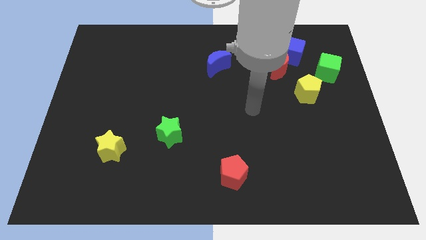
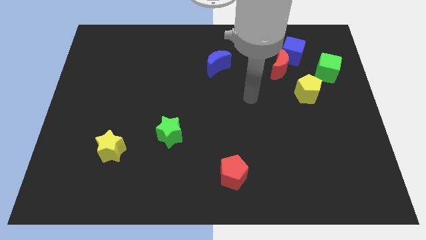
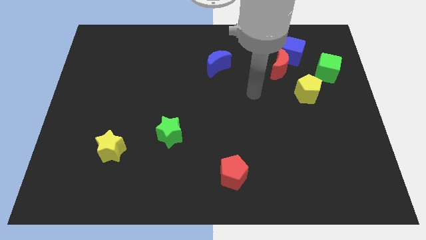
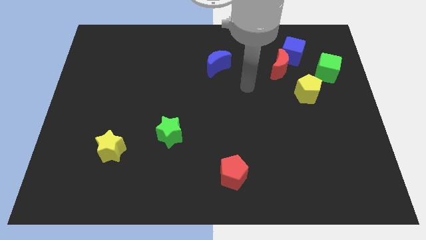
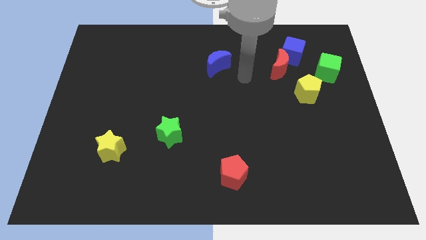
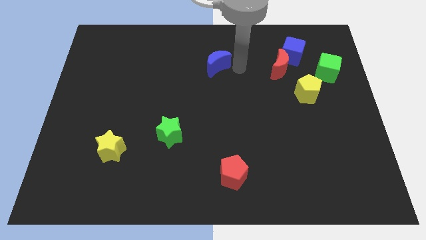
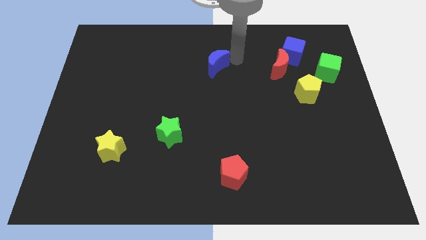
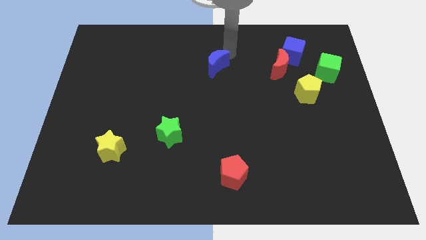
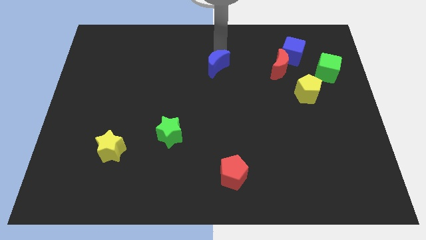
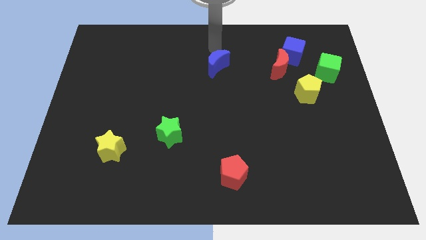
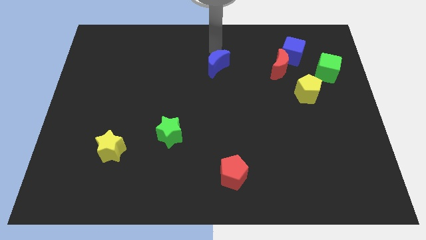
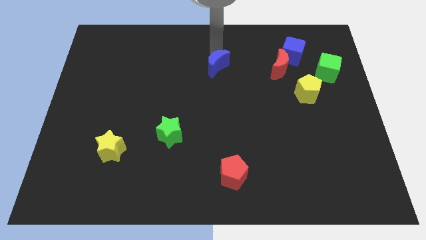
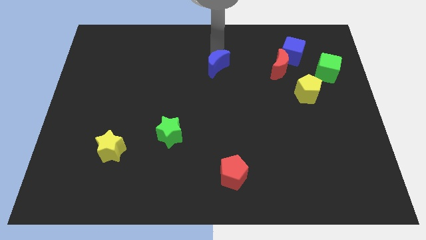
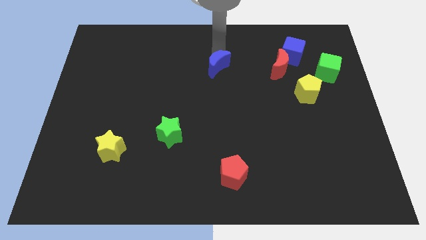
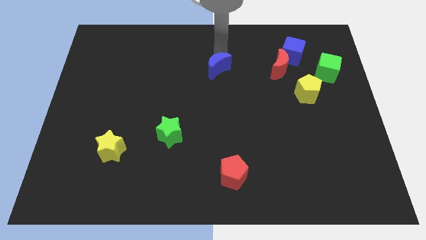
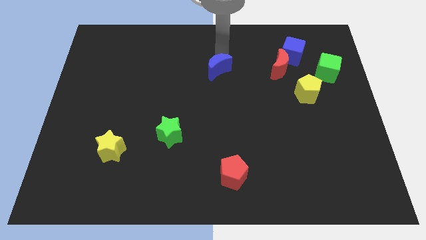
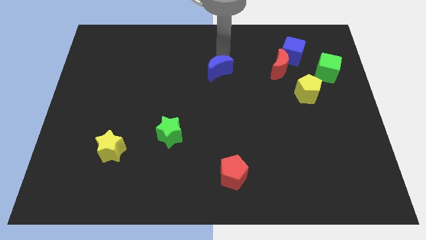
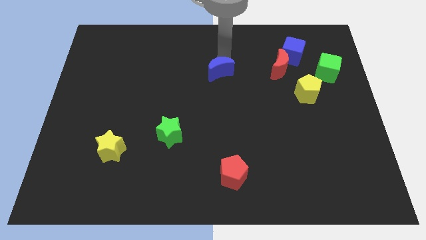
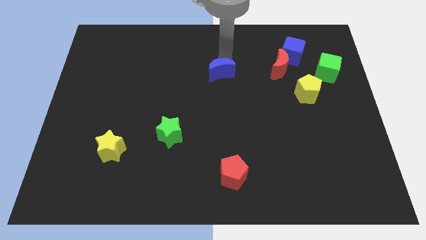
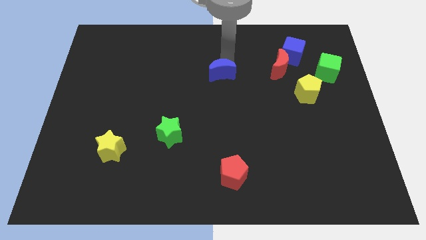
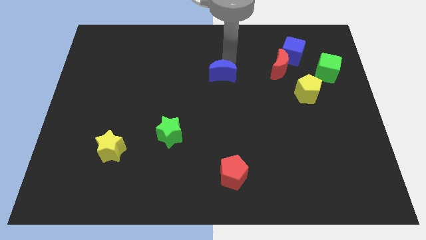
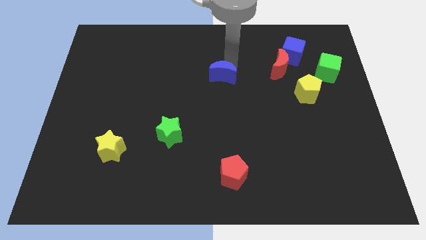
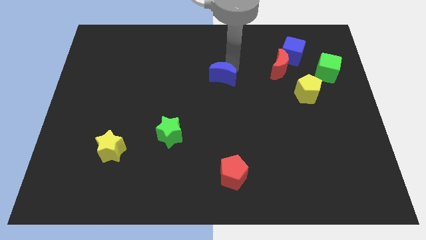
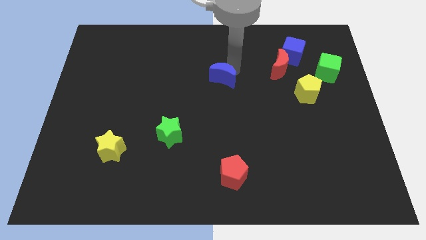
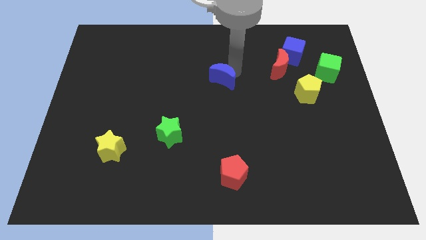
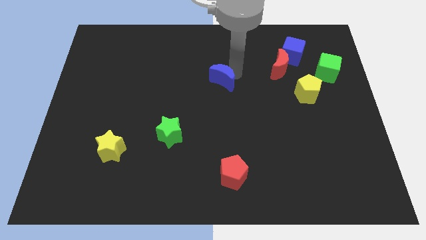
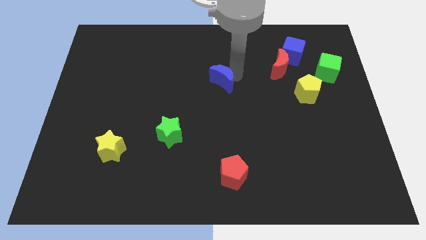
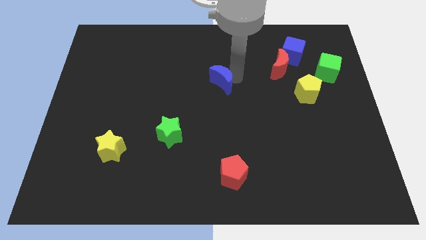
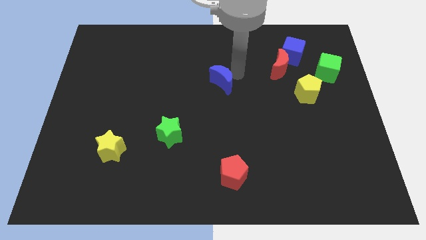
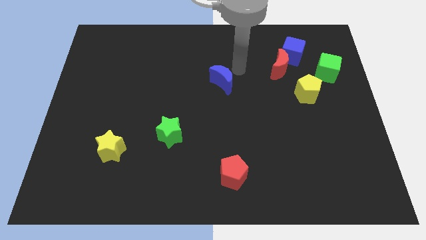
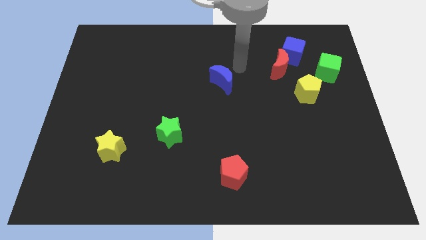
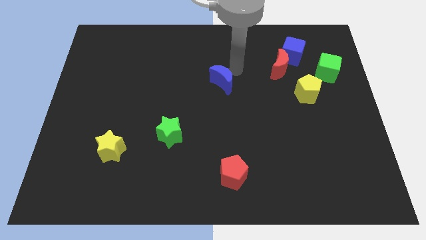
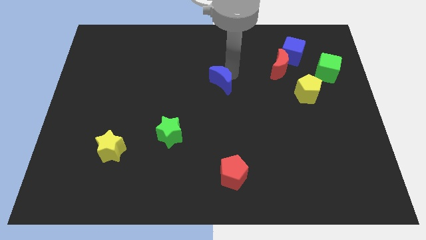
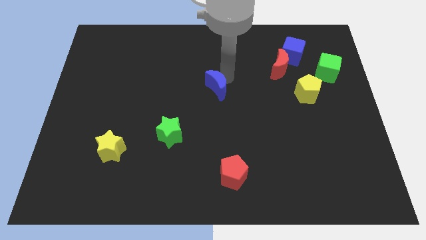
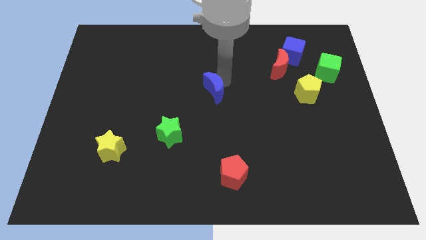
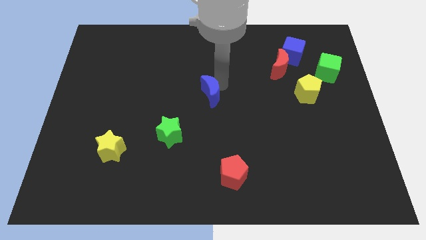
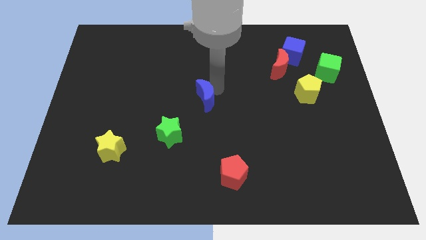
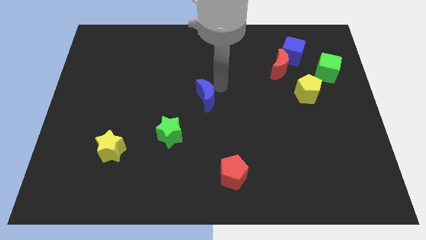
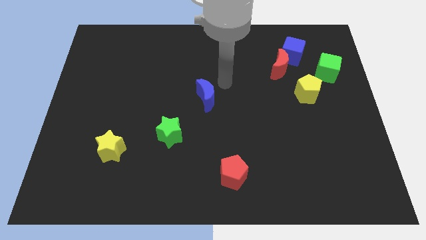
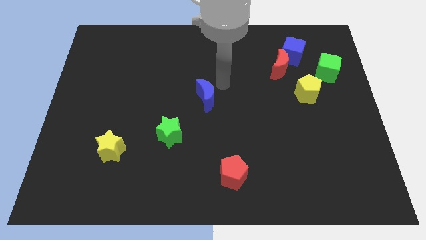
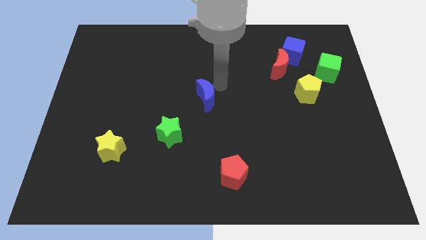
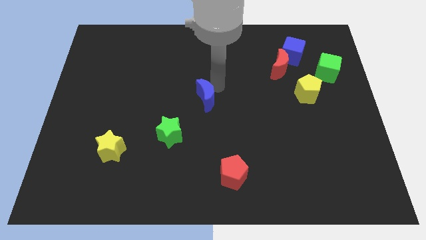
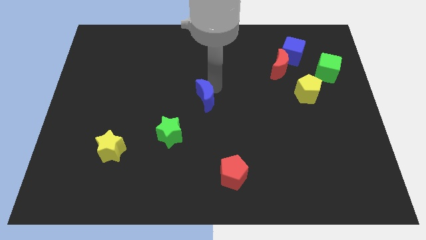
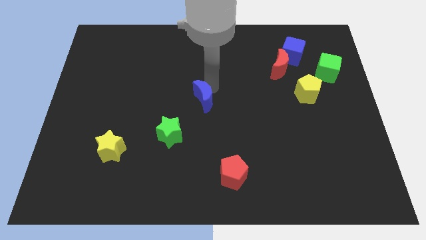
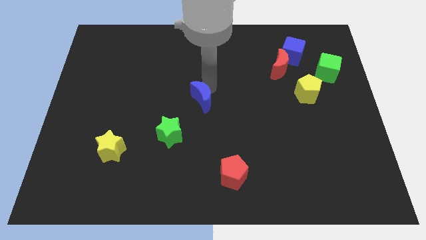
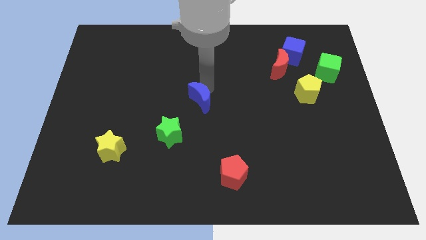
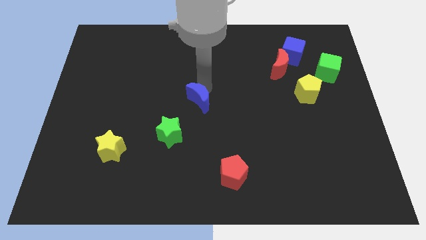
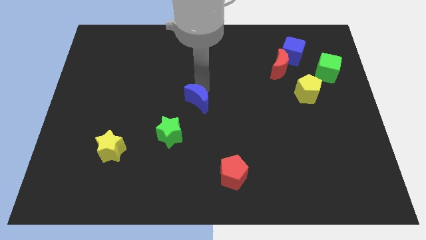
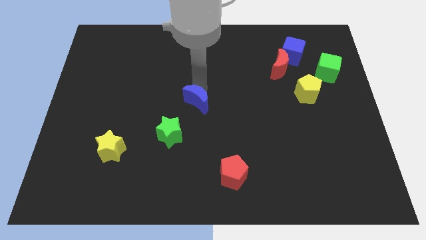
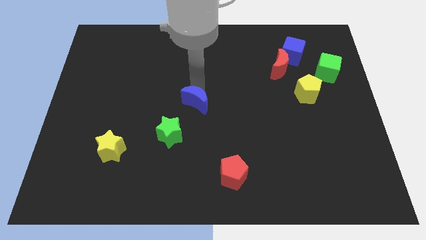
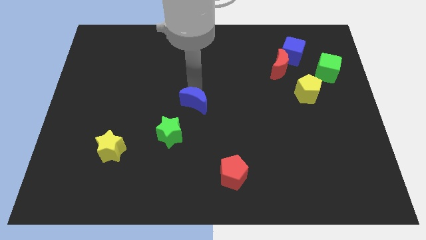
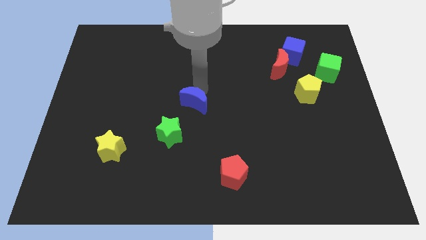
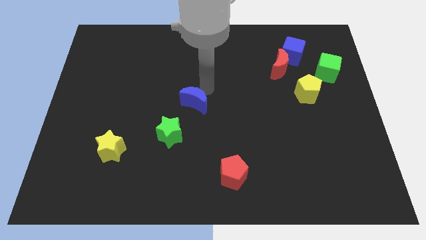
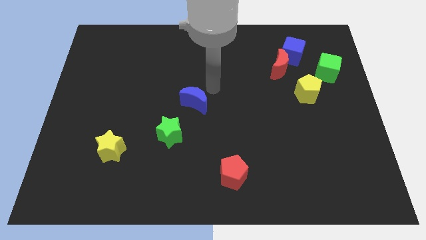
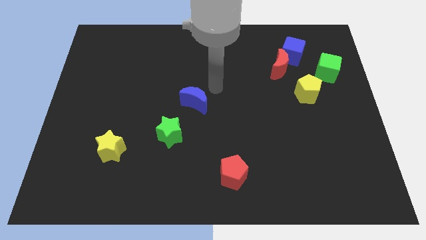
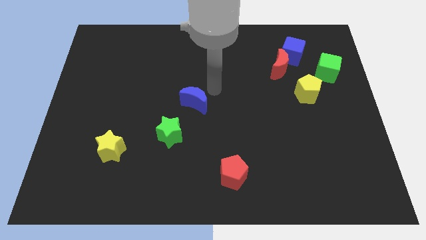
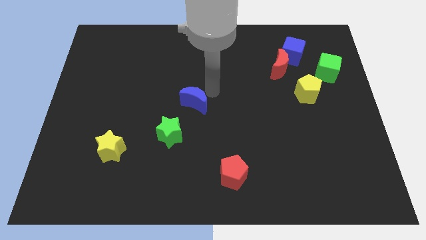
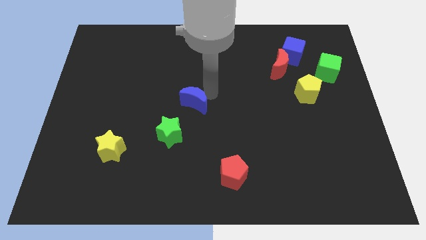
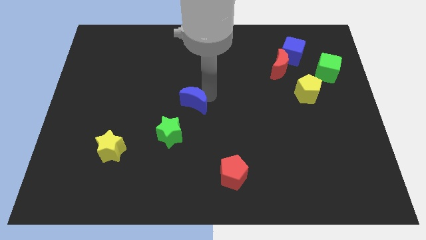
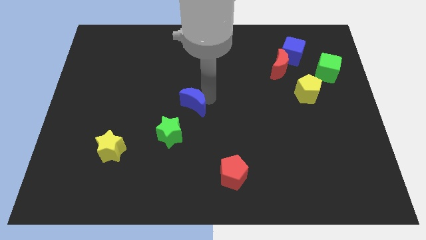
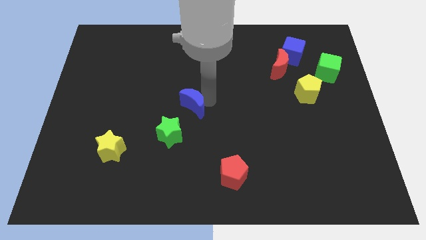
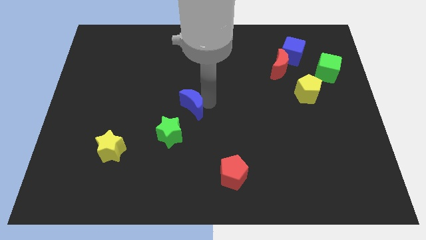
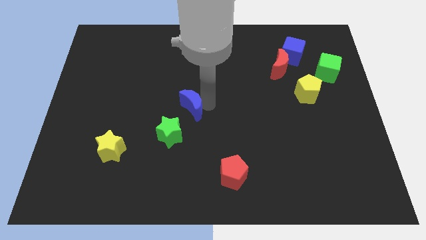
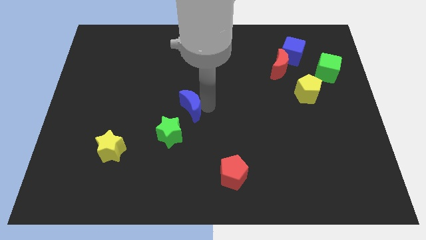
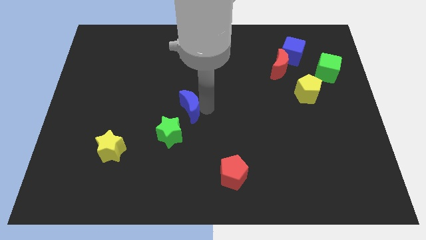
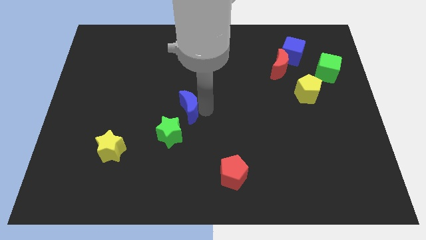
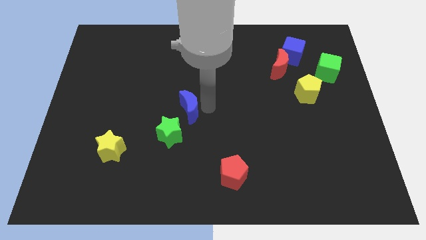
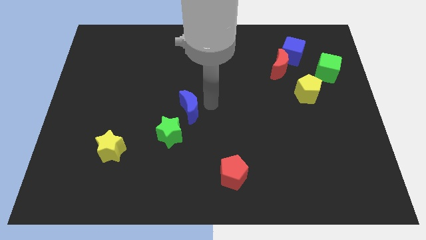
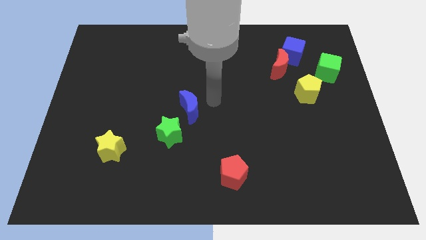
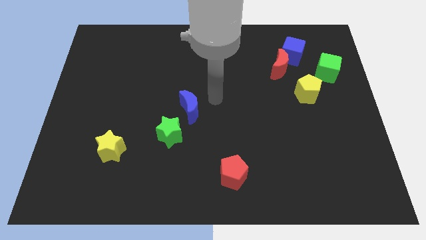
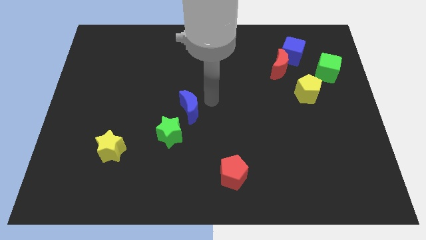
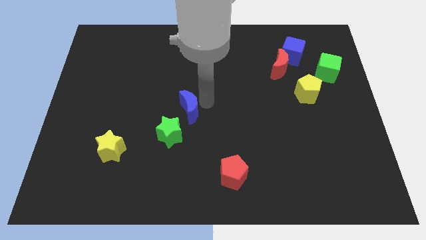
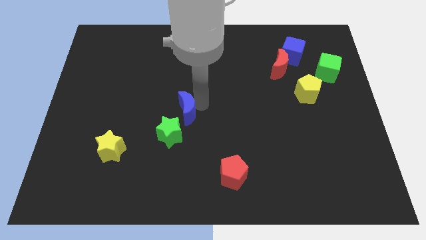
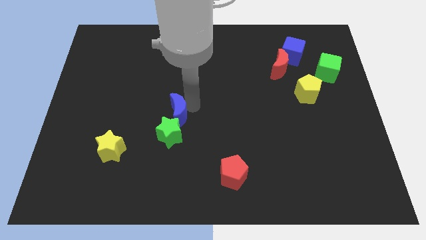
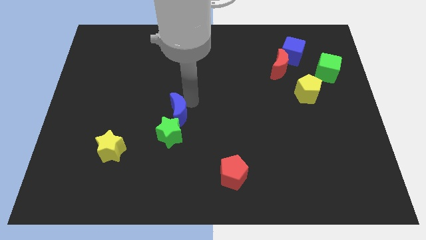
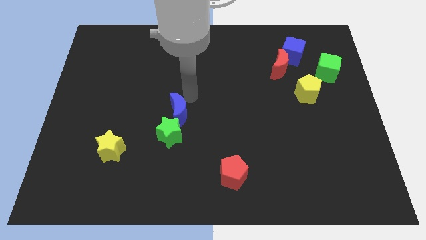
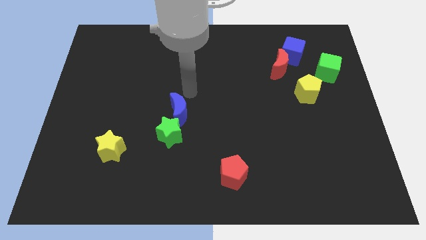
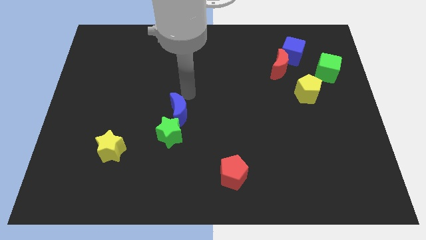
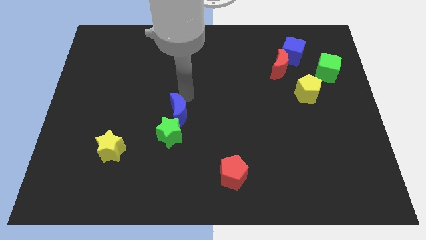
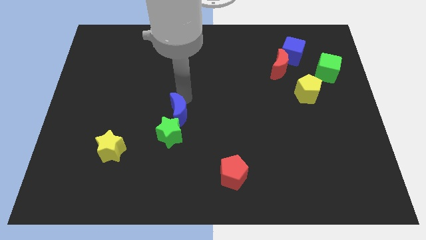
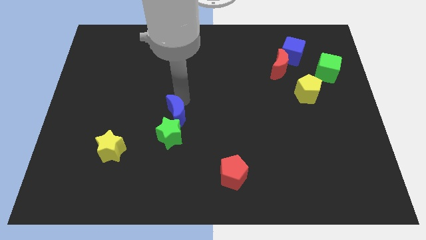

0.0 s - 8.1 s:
slide the blue moon towards the green star
